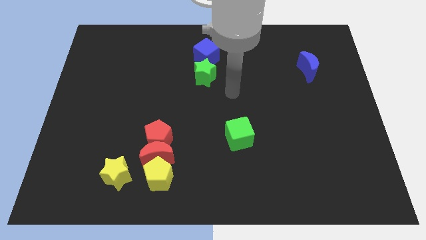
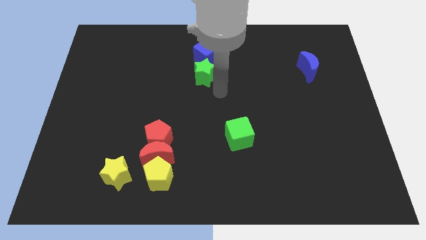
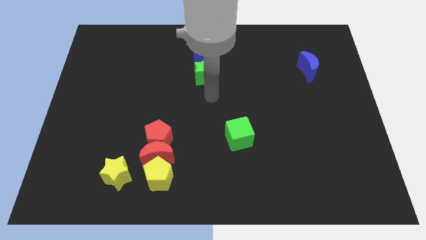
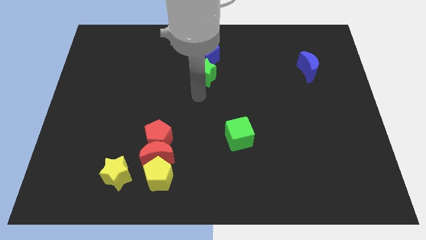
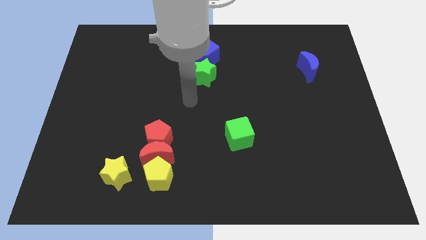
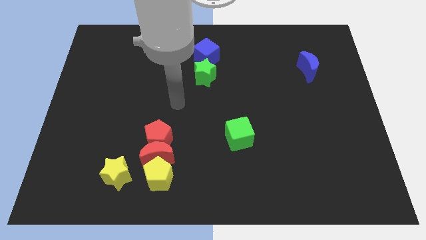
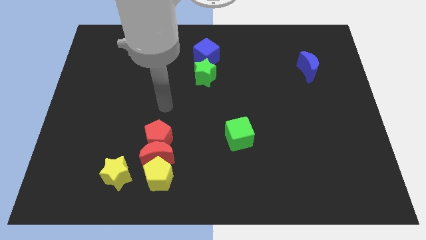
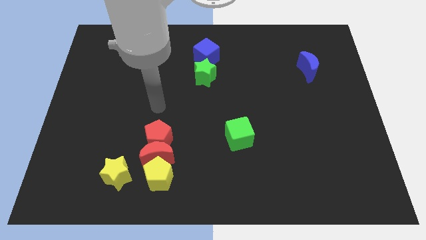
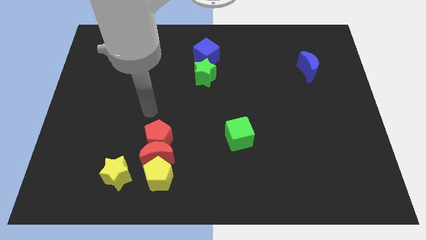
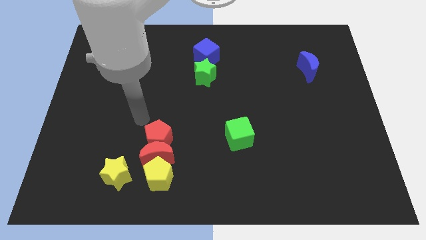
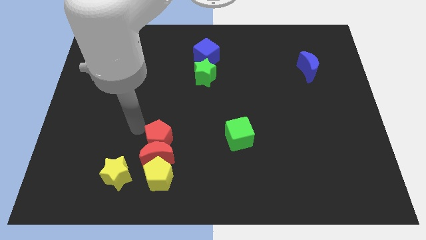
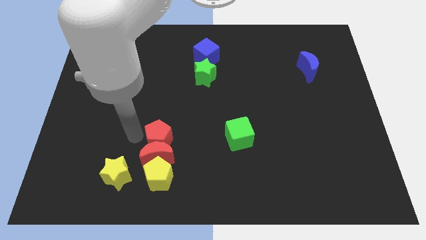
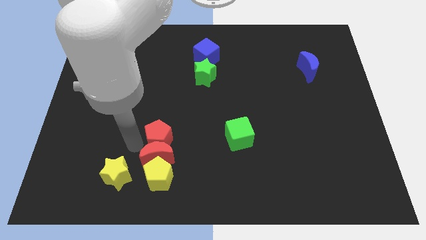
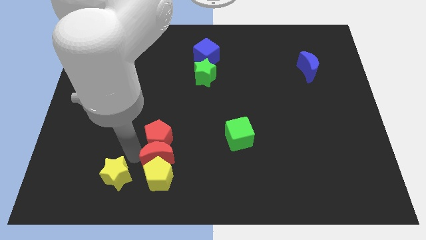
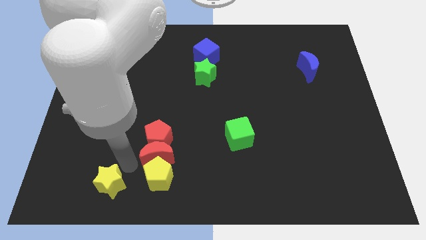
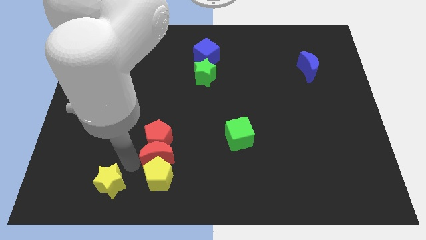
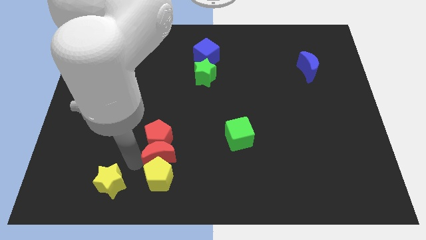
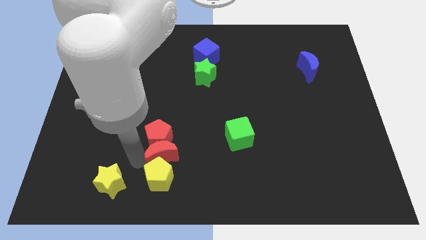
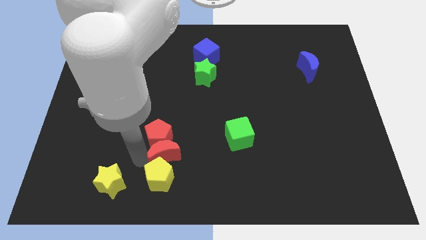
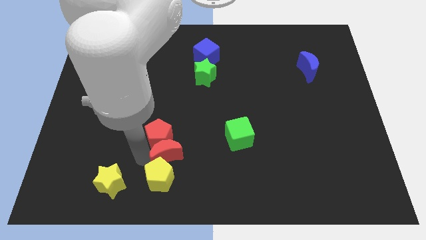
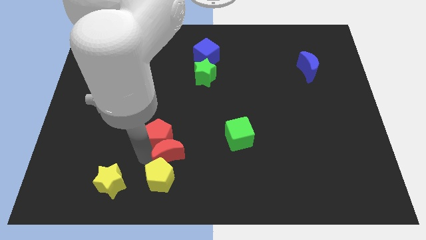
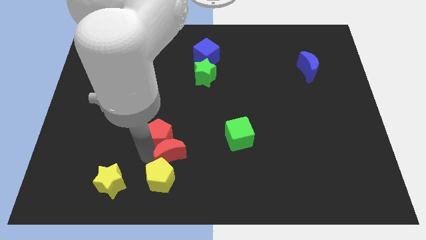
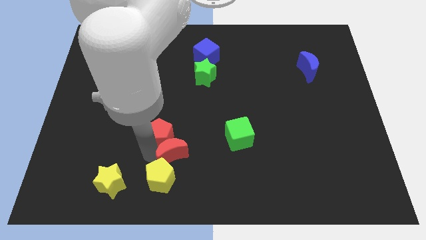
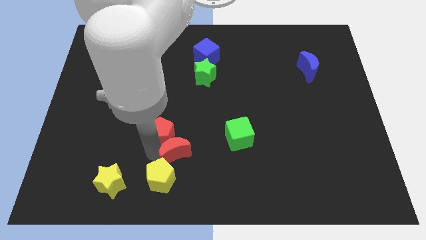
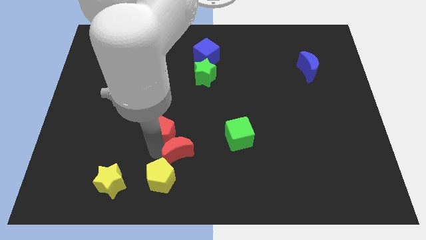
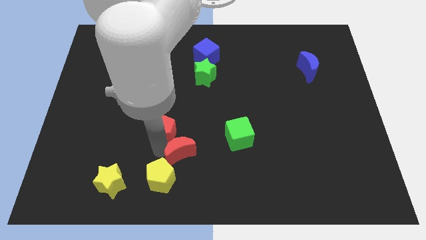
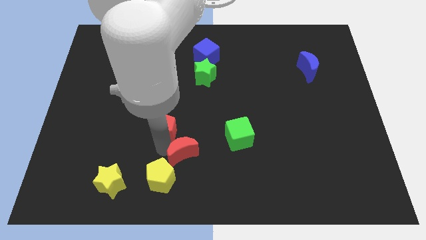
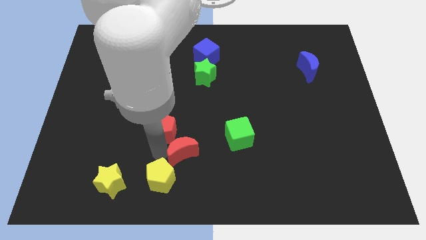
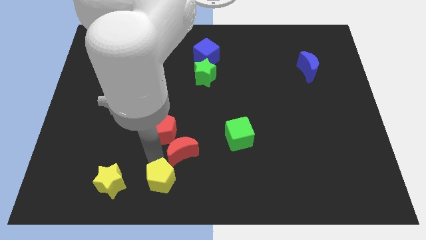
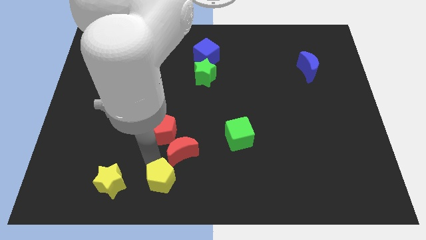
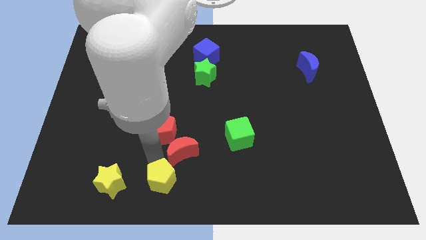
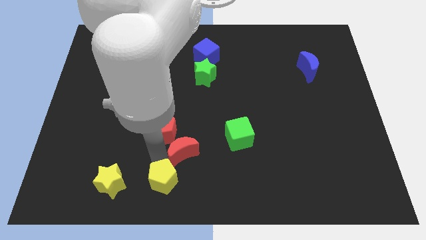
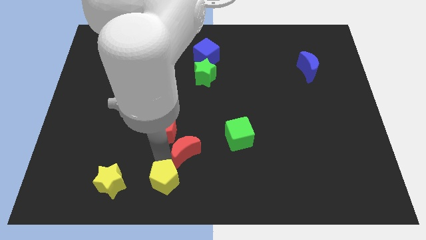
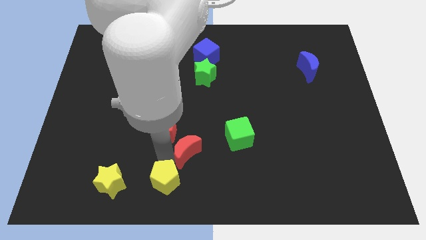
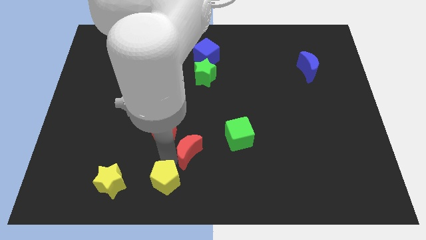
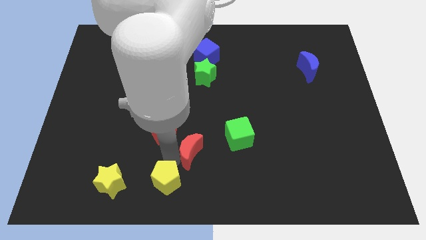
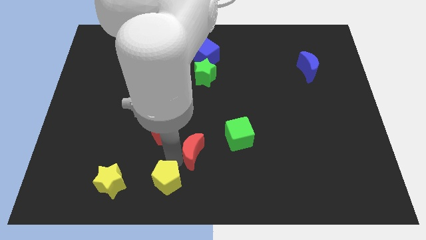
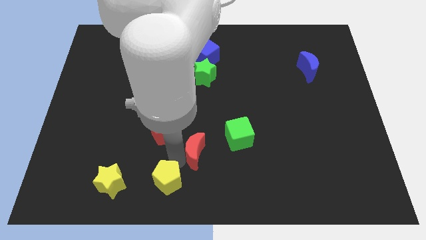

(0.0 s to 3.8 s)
pull the red moon apart from the red pentagon, yellow pentagon, and yellow star

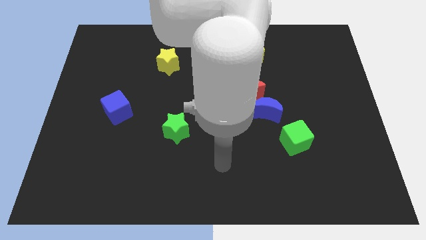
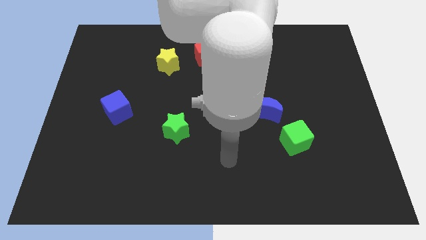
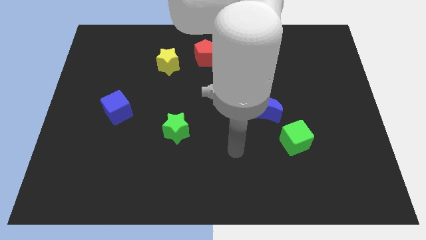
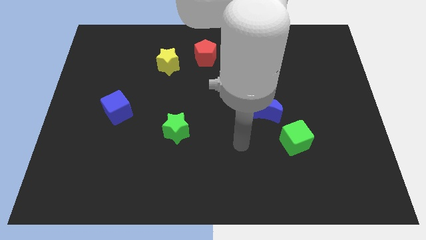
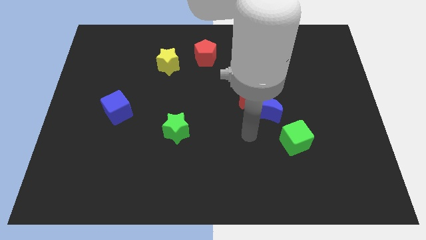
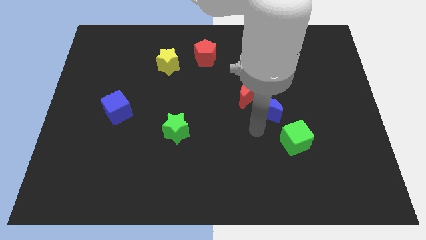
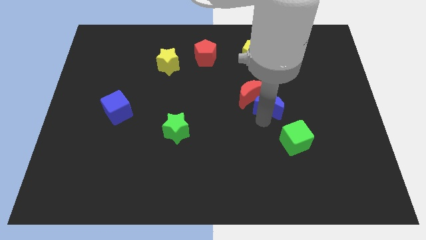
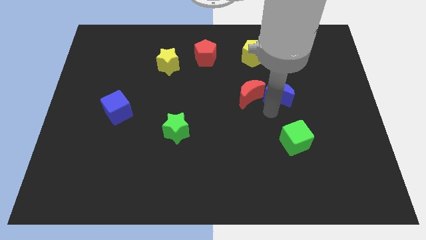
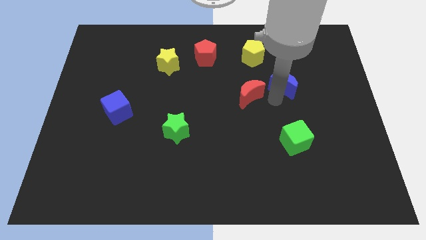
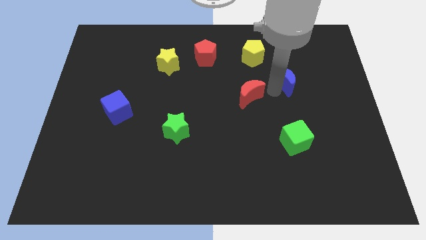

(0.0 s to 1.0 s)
move the red moon away from the blue moon

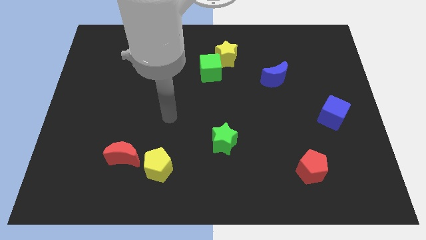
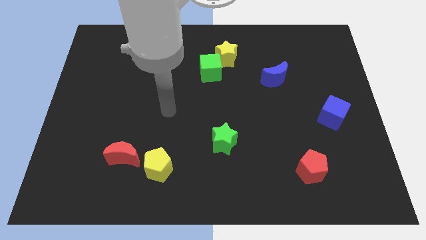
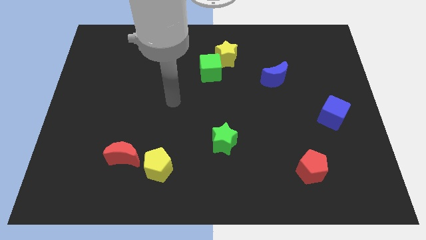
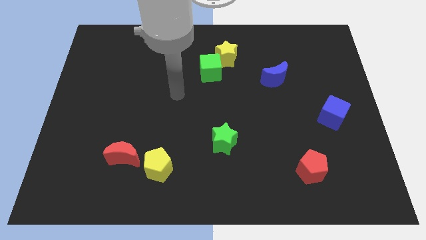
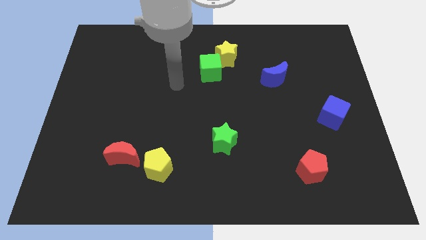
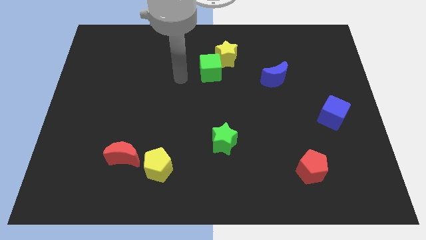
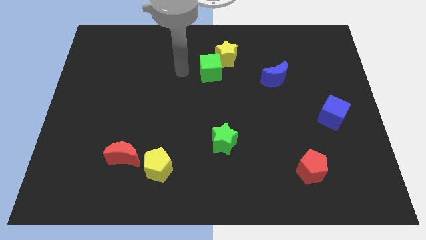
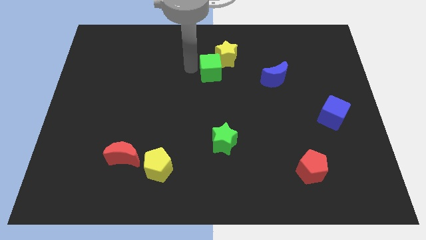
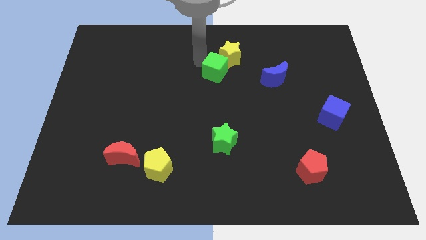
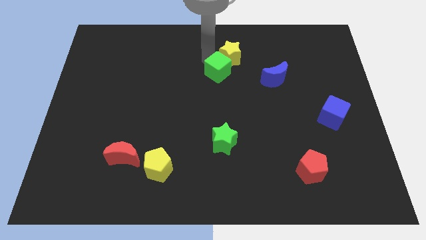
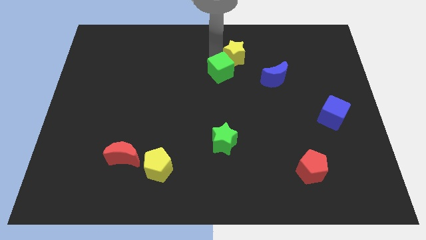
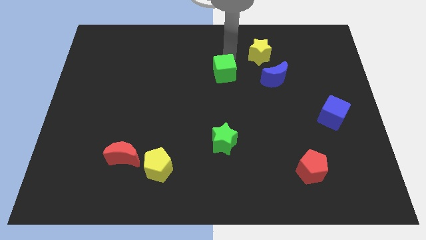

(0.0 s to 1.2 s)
pull the green cube apart from the yellow star

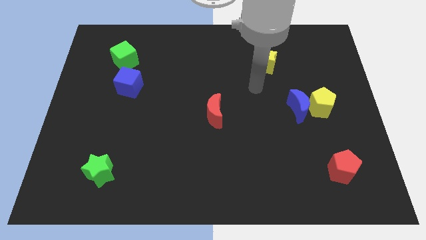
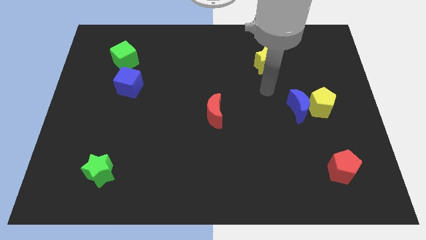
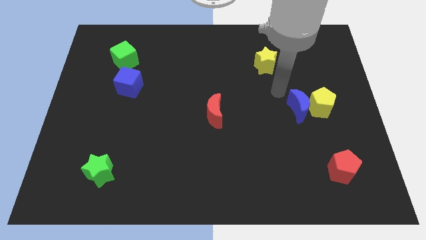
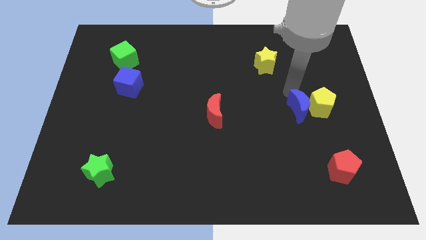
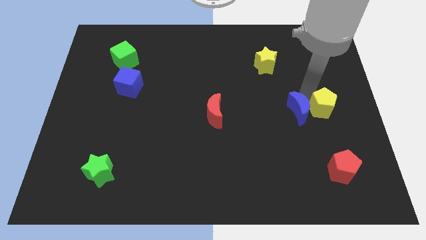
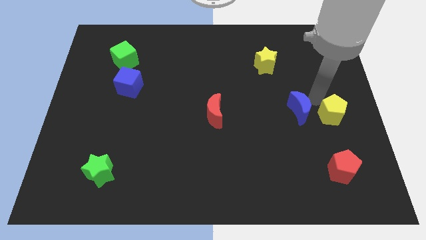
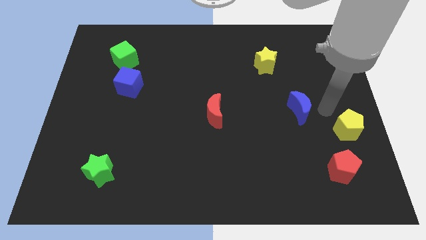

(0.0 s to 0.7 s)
pull the blue moon apart from the yellow pentagon

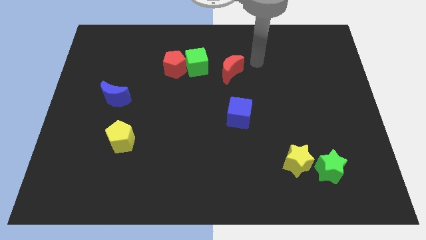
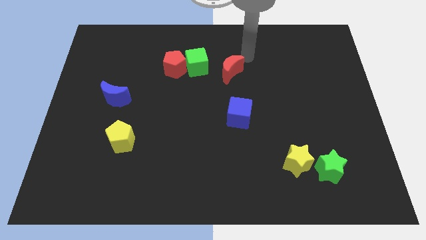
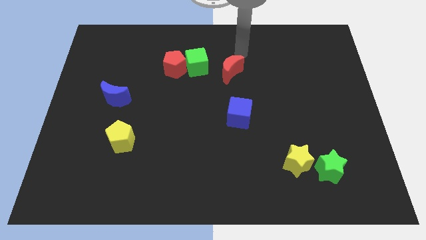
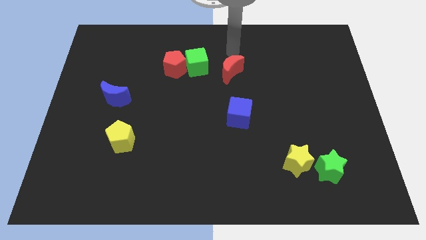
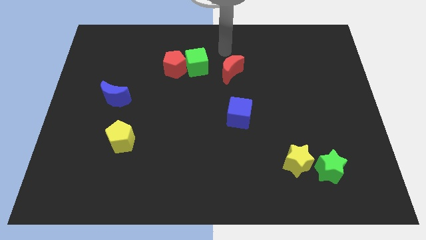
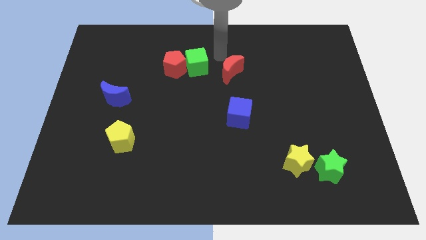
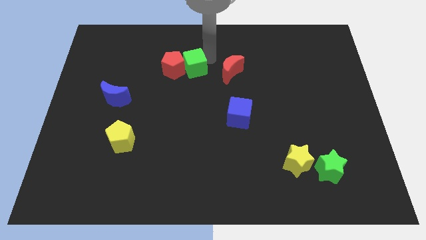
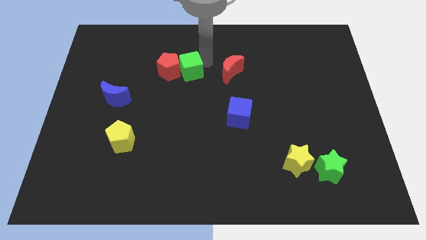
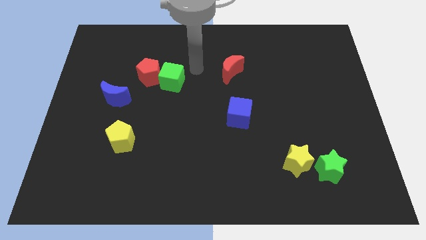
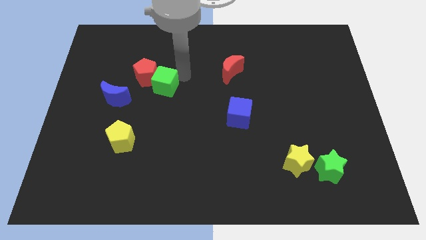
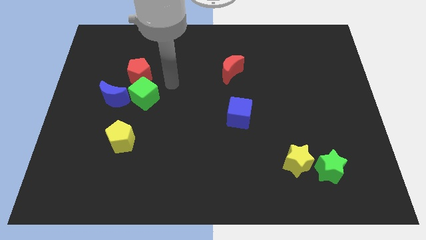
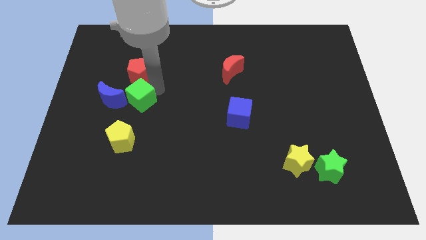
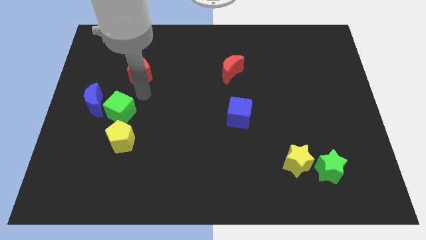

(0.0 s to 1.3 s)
pull the red pentagon apart from the green cube

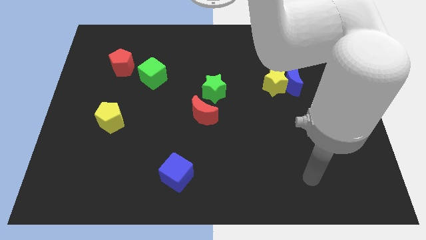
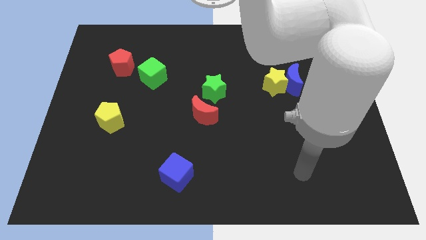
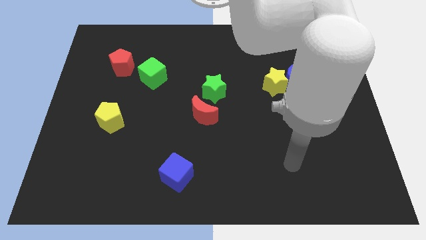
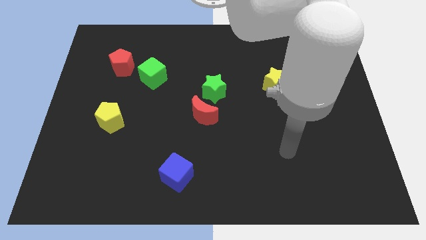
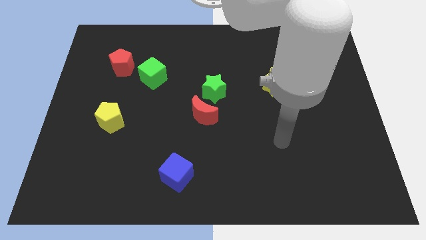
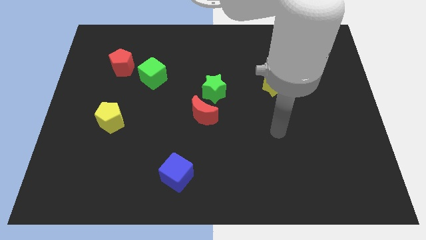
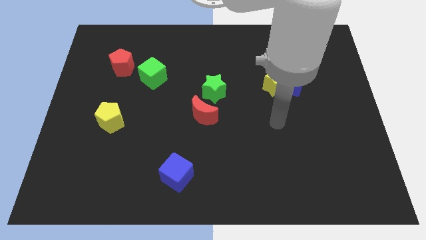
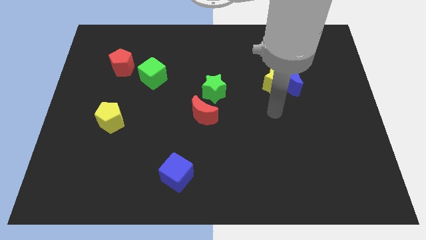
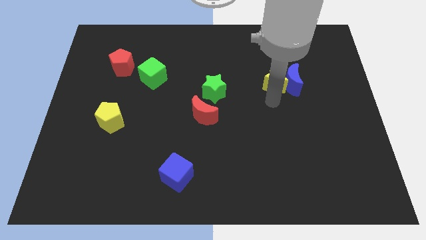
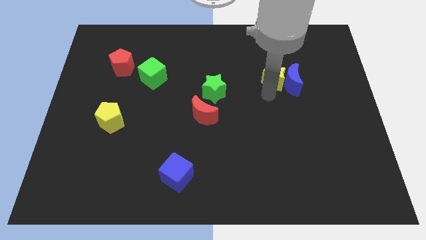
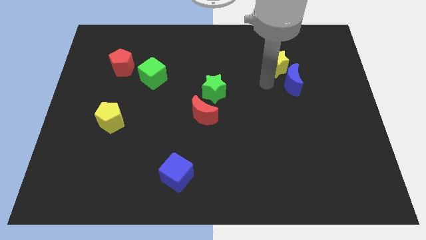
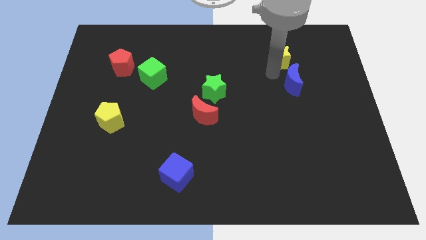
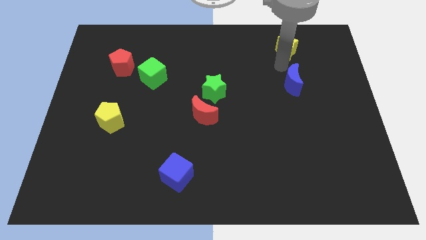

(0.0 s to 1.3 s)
separate the blue moon from the yellow star

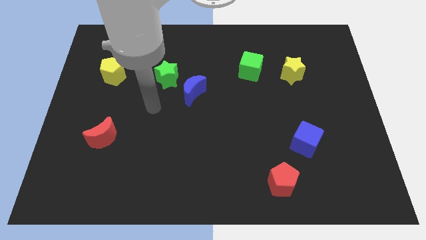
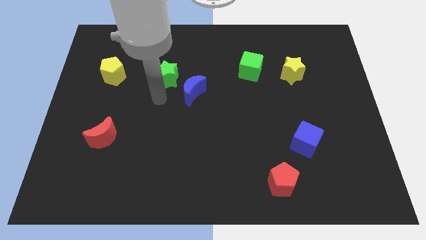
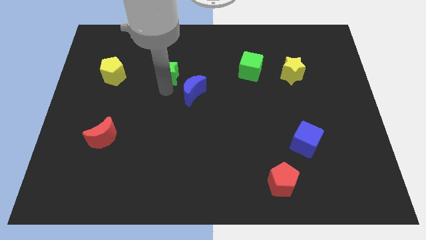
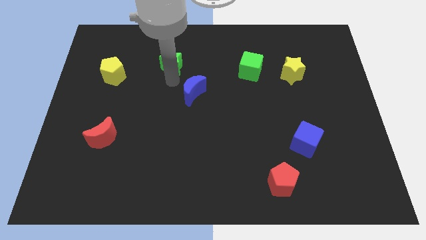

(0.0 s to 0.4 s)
pull the blue moon apart from the green star
